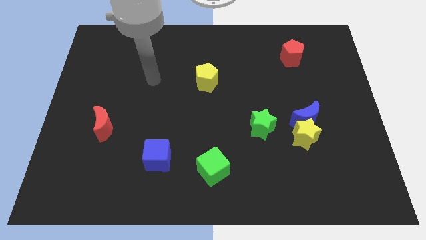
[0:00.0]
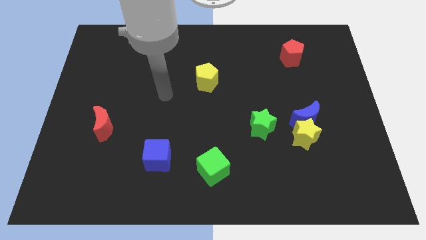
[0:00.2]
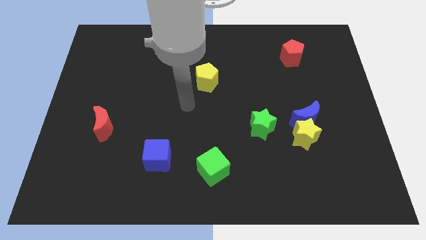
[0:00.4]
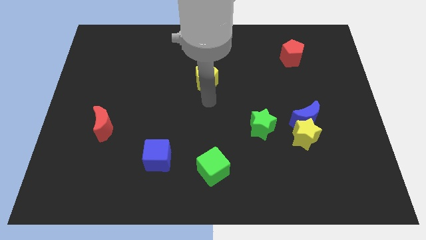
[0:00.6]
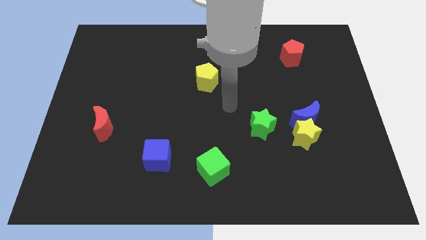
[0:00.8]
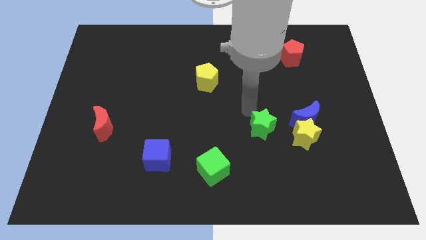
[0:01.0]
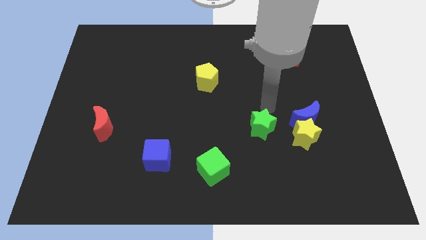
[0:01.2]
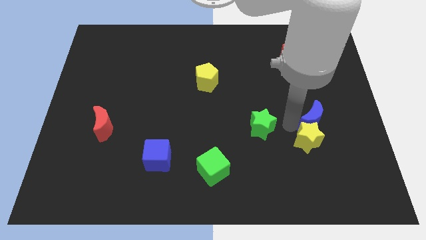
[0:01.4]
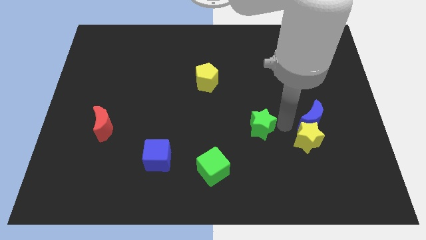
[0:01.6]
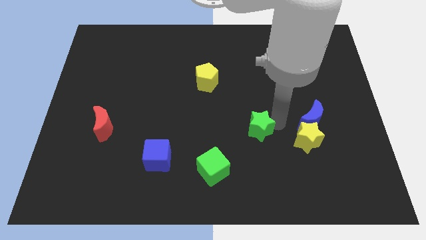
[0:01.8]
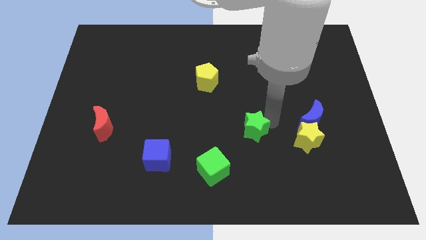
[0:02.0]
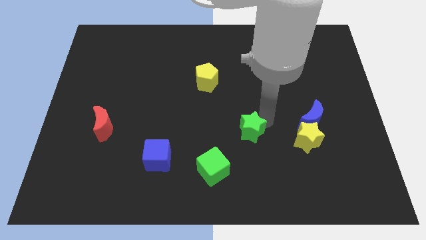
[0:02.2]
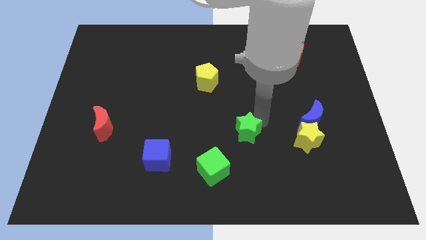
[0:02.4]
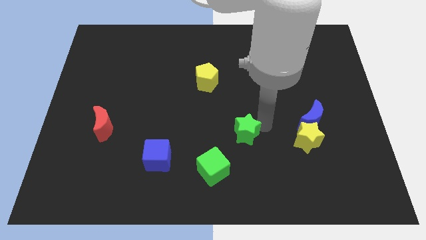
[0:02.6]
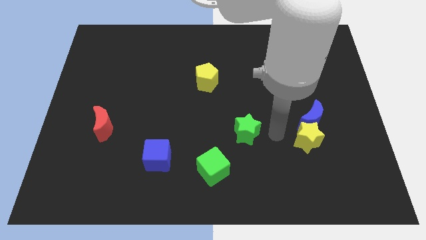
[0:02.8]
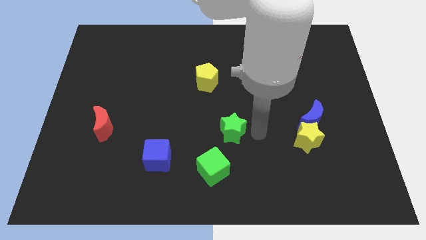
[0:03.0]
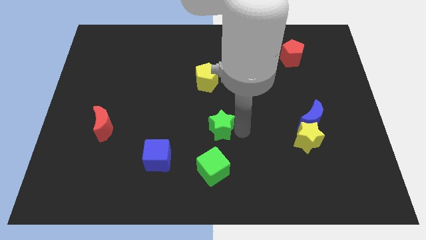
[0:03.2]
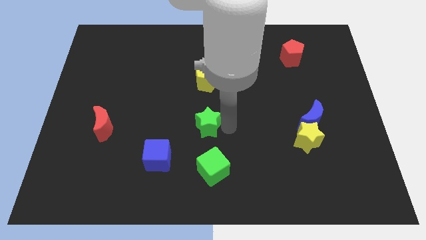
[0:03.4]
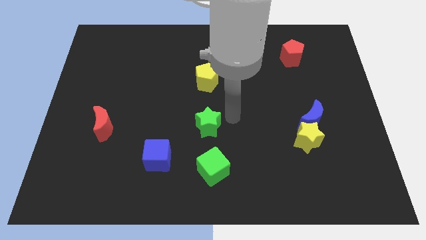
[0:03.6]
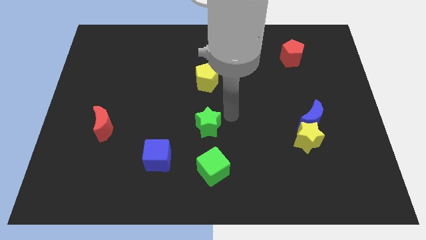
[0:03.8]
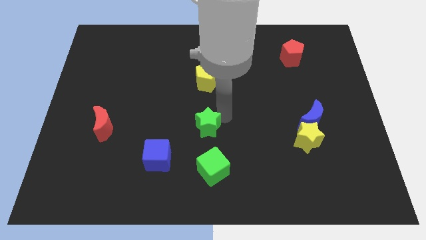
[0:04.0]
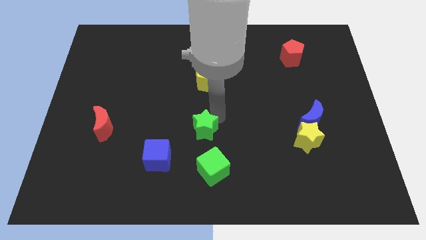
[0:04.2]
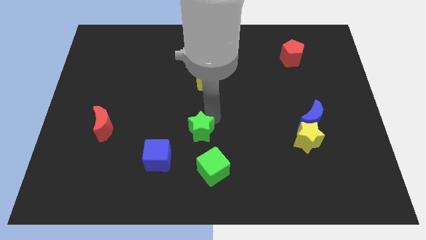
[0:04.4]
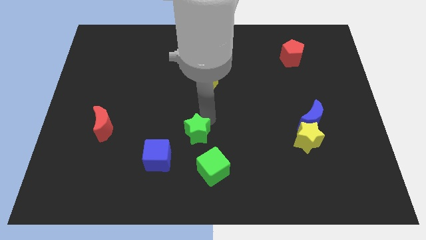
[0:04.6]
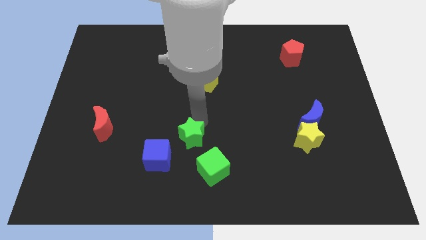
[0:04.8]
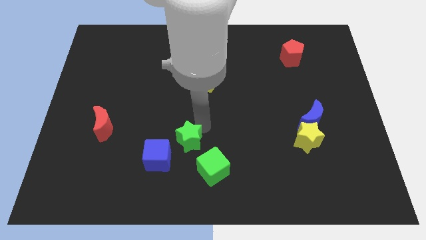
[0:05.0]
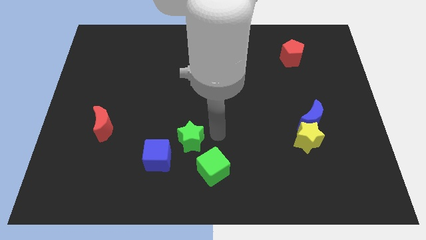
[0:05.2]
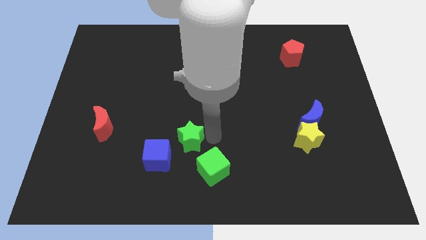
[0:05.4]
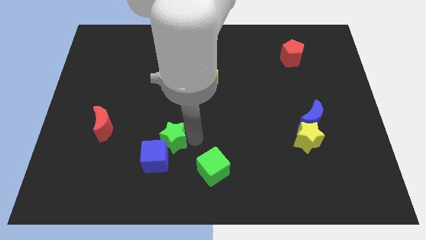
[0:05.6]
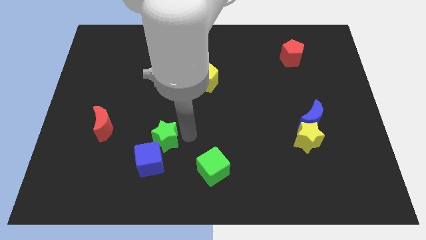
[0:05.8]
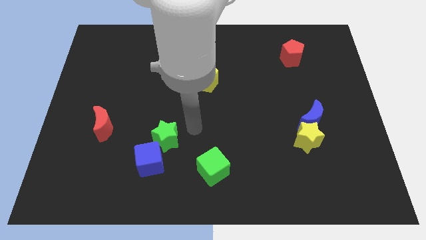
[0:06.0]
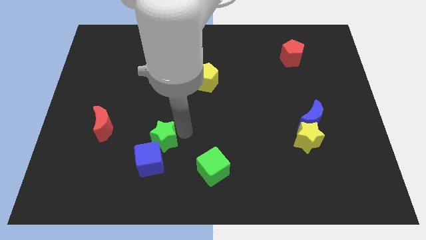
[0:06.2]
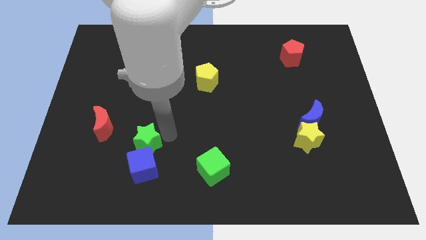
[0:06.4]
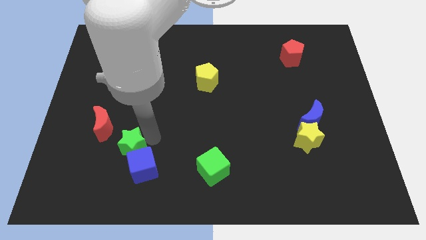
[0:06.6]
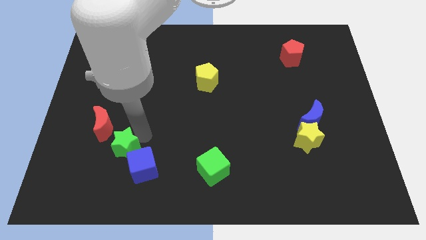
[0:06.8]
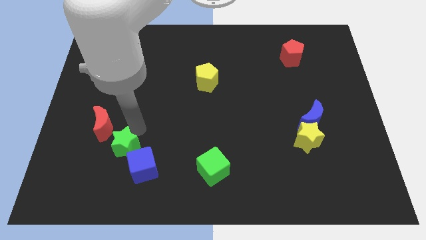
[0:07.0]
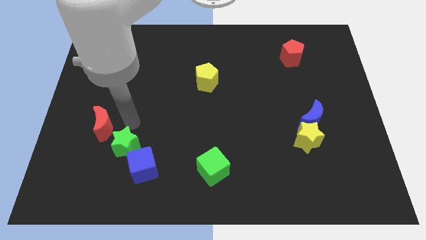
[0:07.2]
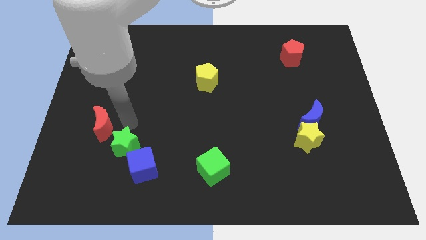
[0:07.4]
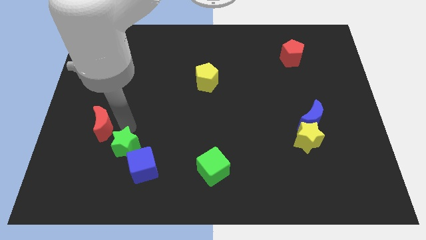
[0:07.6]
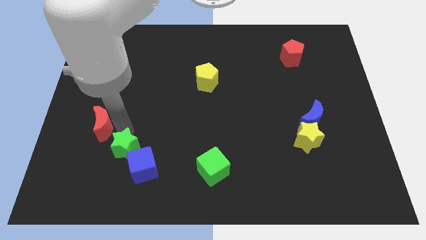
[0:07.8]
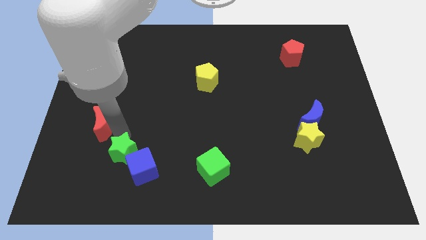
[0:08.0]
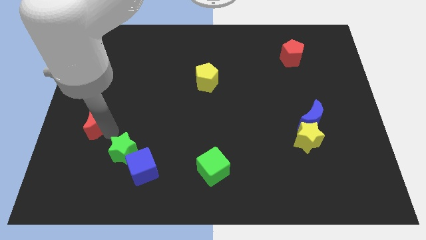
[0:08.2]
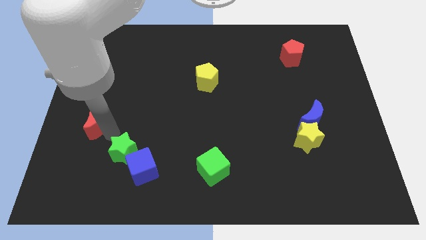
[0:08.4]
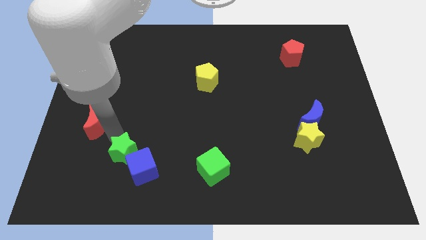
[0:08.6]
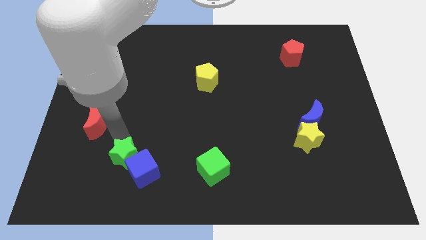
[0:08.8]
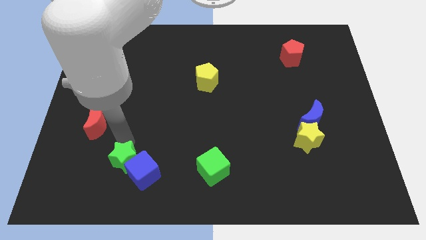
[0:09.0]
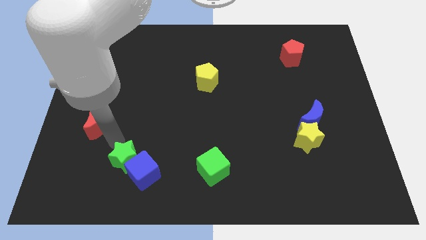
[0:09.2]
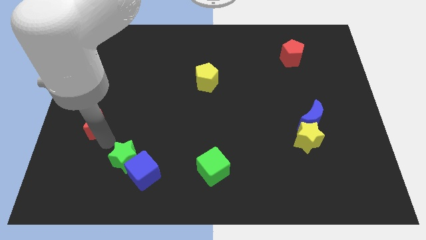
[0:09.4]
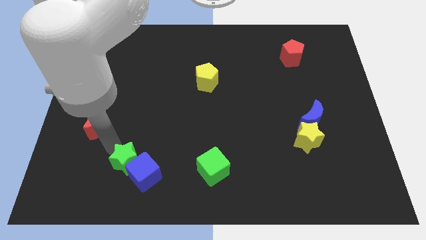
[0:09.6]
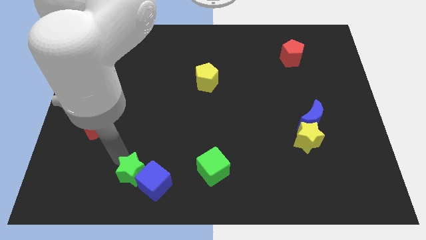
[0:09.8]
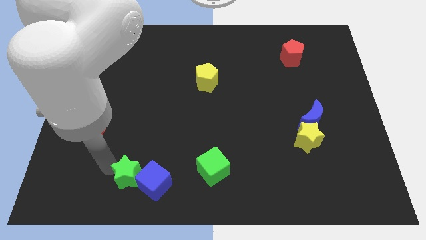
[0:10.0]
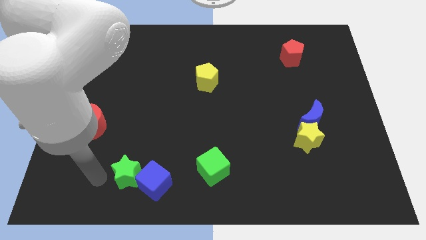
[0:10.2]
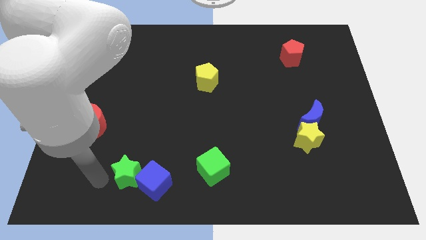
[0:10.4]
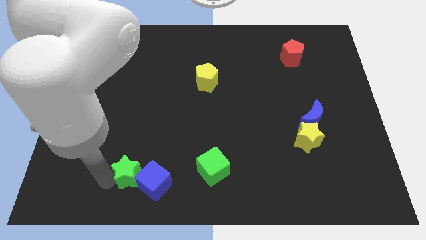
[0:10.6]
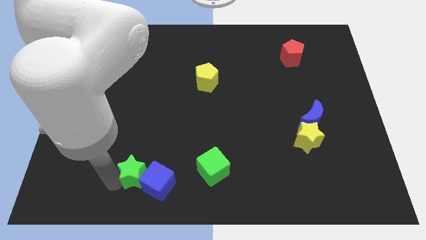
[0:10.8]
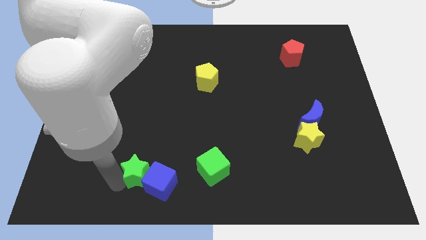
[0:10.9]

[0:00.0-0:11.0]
slide the green star left of the green cube
